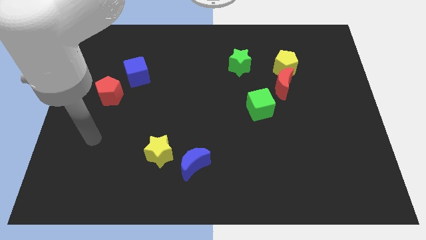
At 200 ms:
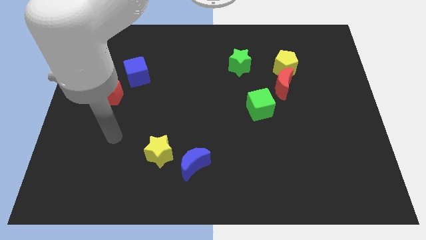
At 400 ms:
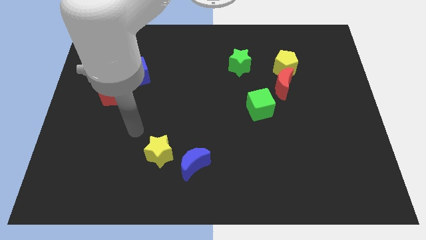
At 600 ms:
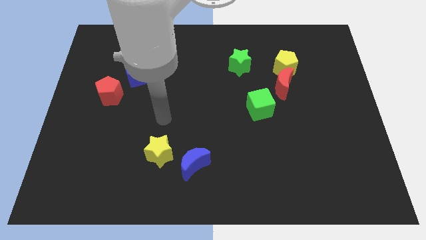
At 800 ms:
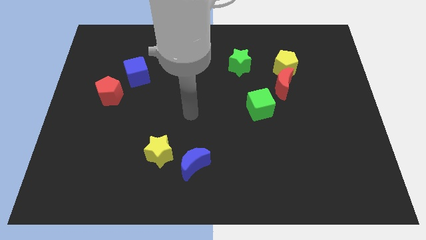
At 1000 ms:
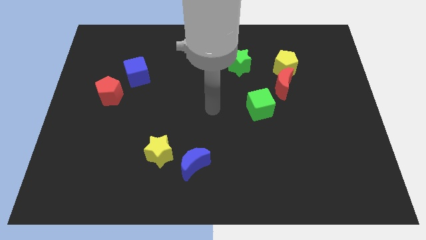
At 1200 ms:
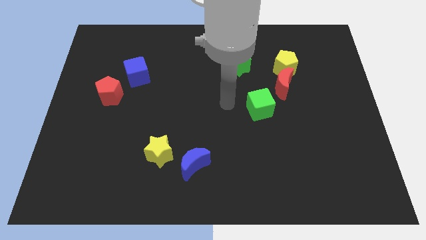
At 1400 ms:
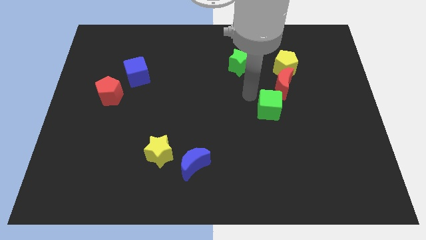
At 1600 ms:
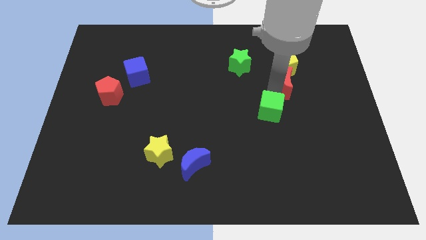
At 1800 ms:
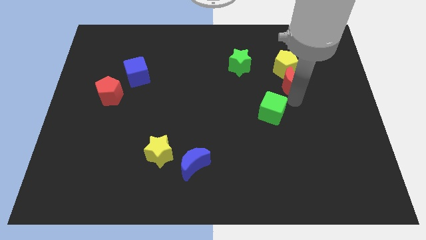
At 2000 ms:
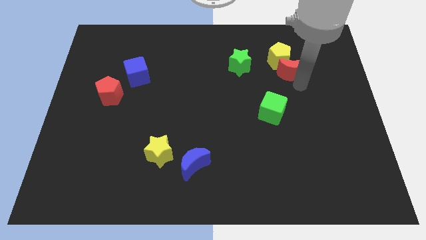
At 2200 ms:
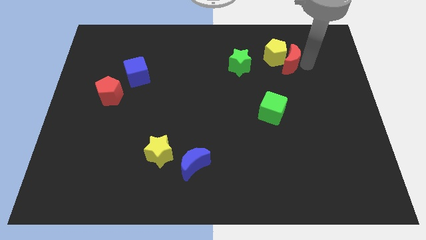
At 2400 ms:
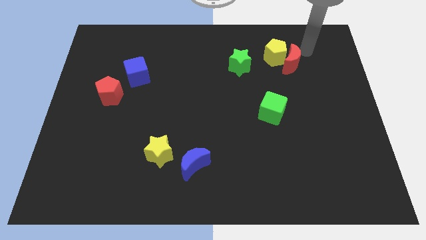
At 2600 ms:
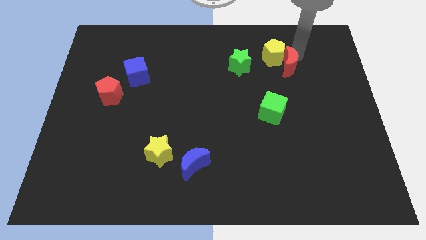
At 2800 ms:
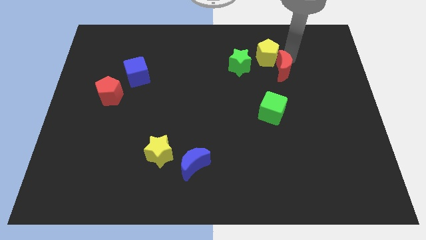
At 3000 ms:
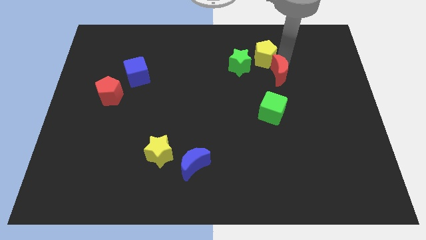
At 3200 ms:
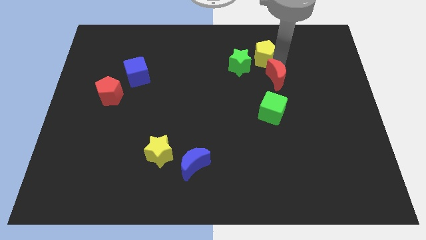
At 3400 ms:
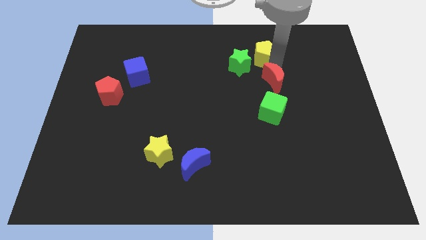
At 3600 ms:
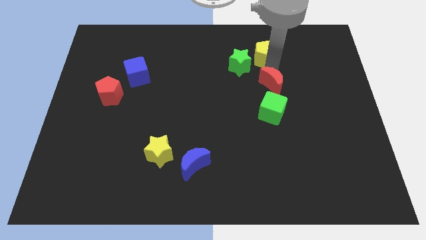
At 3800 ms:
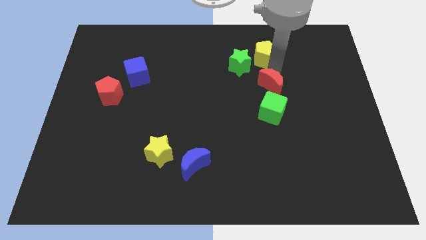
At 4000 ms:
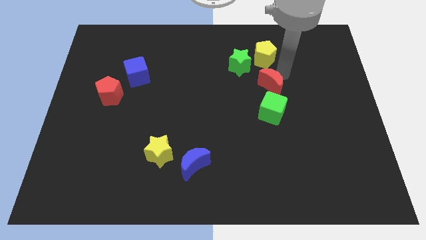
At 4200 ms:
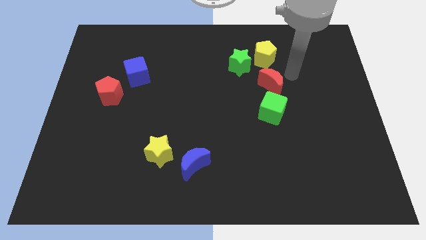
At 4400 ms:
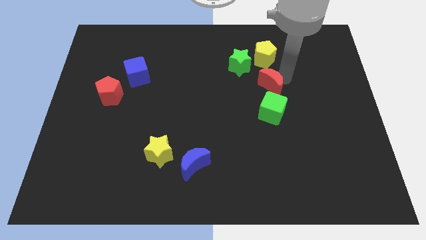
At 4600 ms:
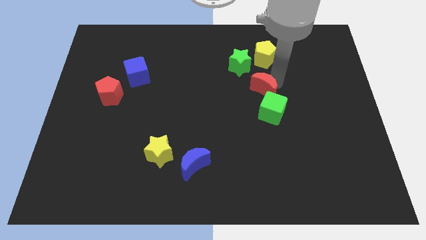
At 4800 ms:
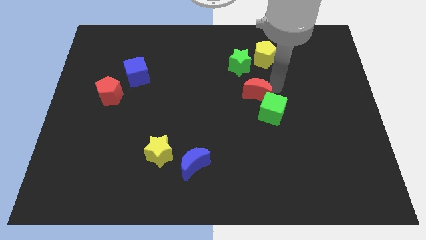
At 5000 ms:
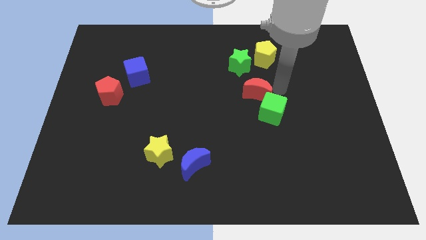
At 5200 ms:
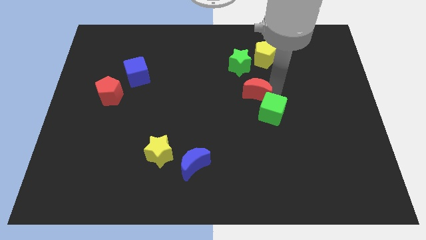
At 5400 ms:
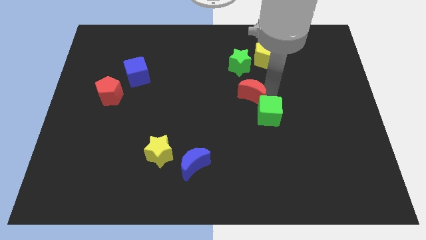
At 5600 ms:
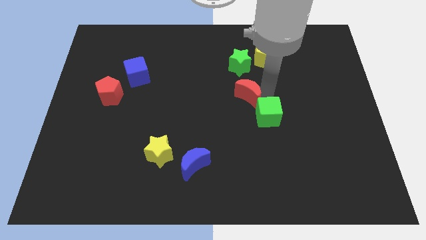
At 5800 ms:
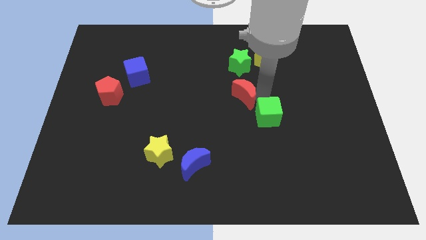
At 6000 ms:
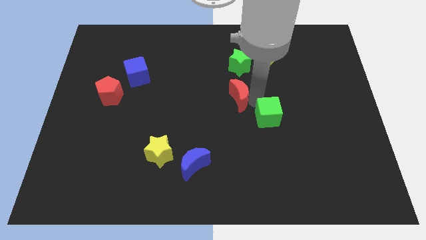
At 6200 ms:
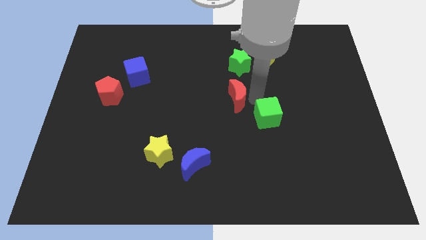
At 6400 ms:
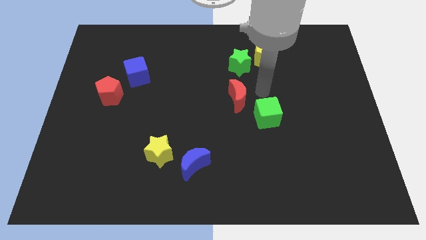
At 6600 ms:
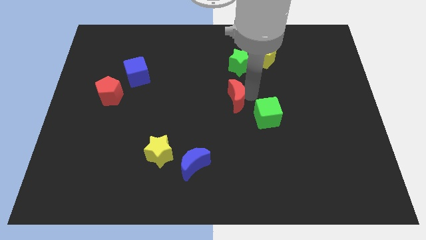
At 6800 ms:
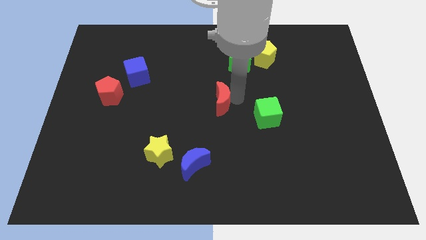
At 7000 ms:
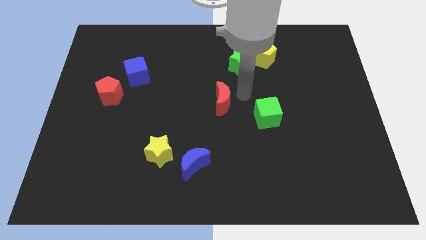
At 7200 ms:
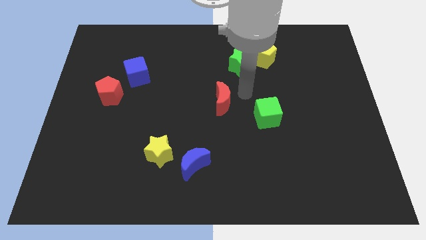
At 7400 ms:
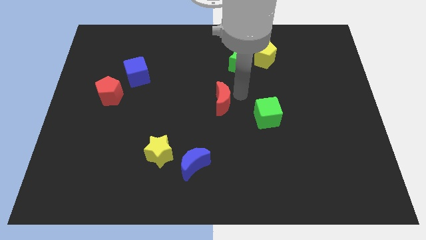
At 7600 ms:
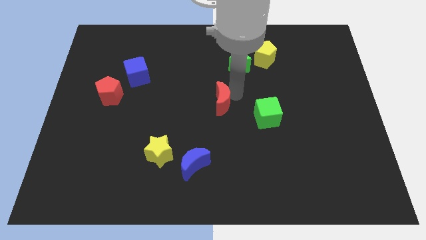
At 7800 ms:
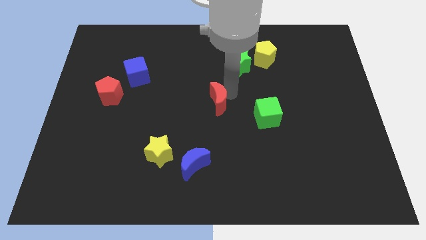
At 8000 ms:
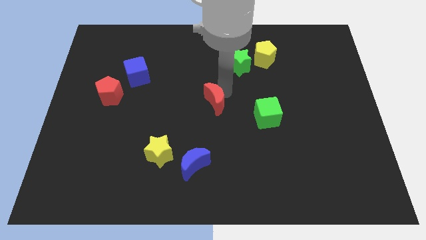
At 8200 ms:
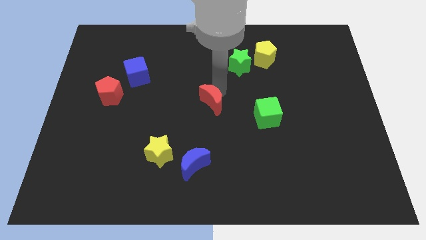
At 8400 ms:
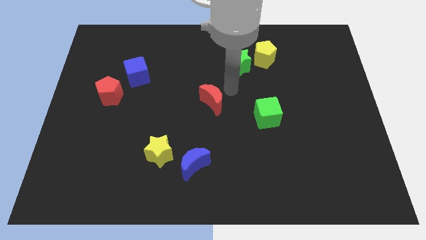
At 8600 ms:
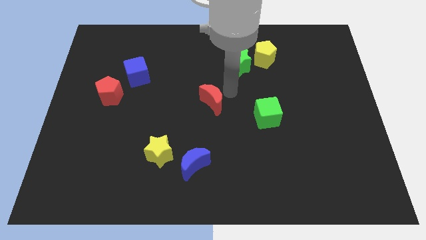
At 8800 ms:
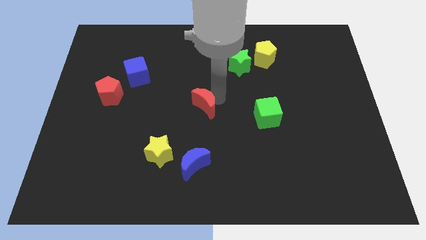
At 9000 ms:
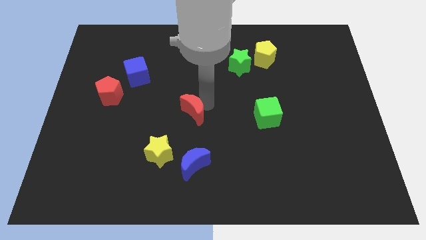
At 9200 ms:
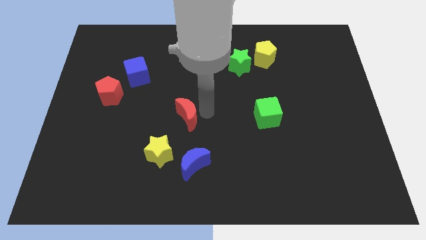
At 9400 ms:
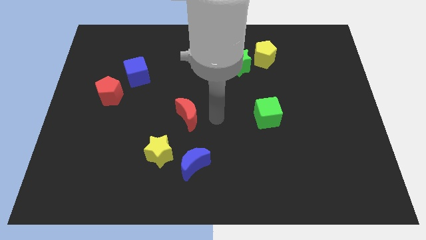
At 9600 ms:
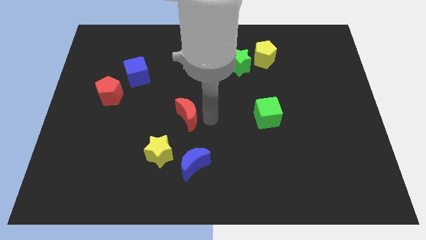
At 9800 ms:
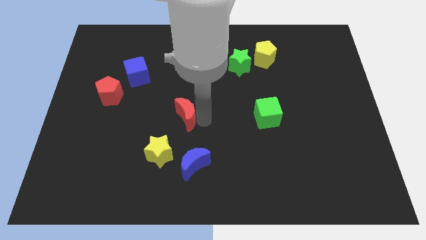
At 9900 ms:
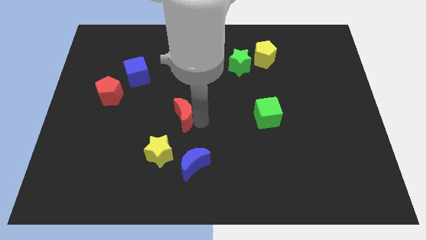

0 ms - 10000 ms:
put the red moon to the top side of the yellow star

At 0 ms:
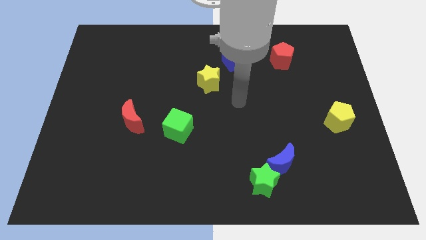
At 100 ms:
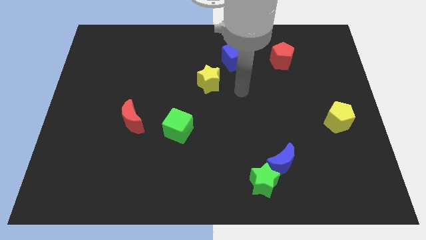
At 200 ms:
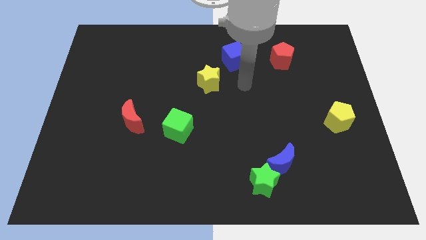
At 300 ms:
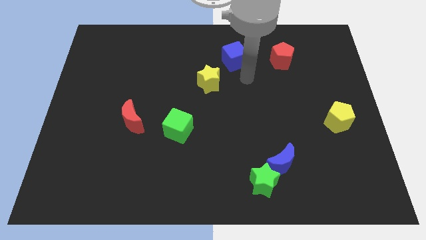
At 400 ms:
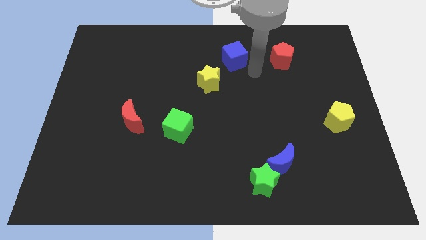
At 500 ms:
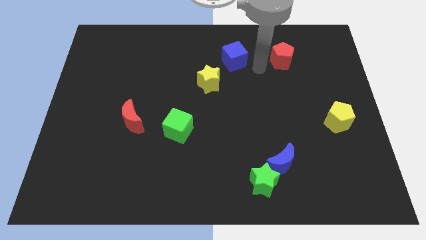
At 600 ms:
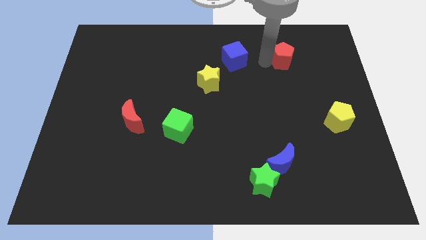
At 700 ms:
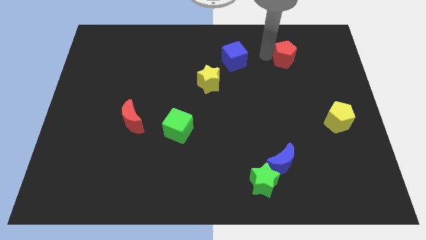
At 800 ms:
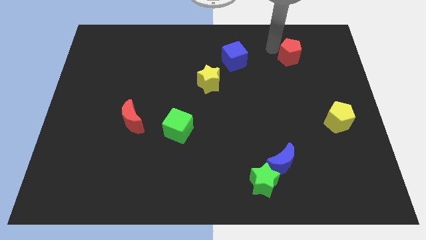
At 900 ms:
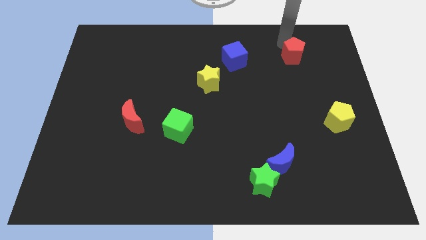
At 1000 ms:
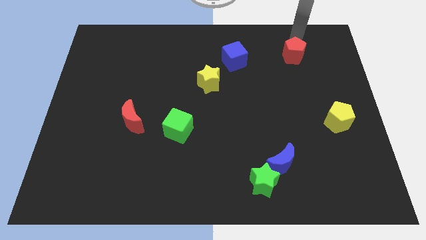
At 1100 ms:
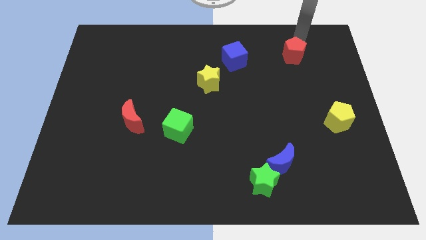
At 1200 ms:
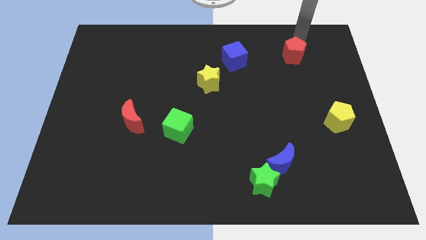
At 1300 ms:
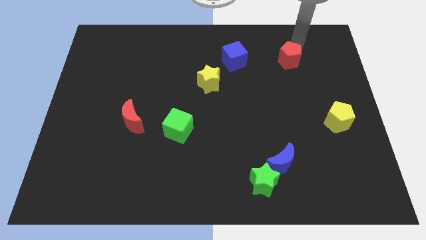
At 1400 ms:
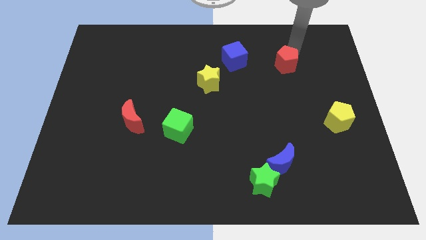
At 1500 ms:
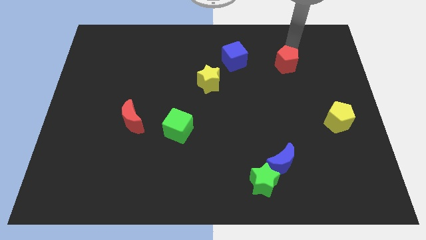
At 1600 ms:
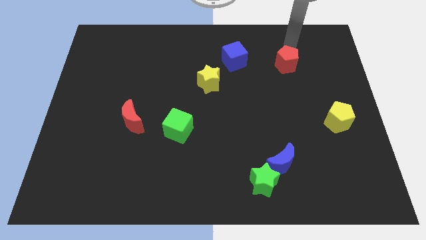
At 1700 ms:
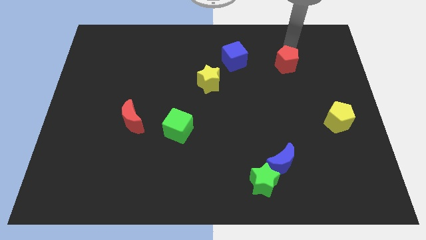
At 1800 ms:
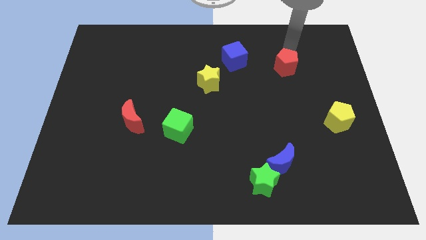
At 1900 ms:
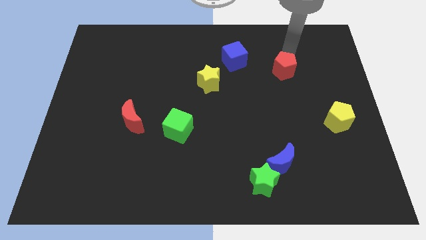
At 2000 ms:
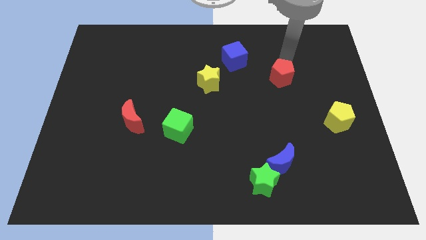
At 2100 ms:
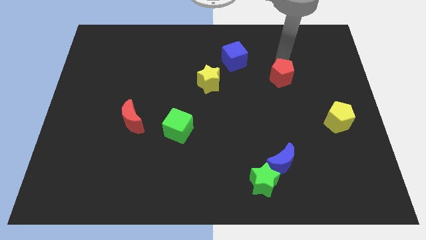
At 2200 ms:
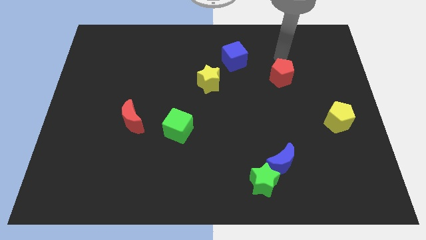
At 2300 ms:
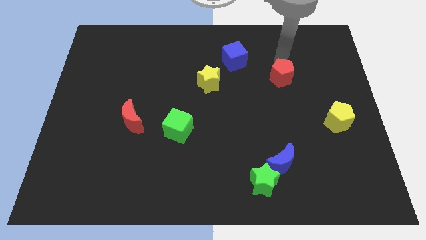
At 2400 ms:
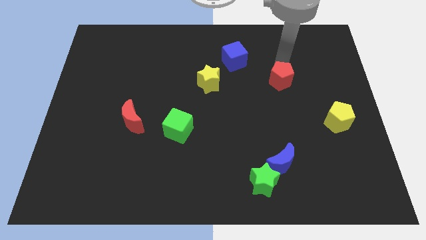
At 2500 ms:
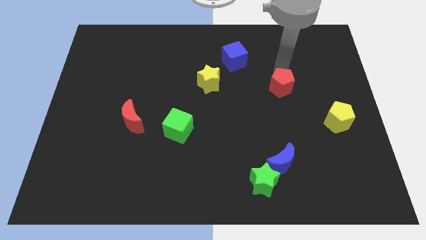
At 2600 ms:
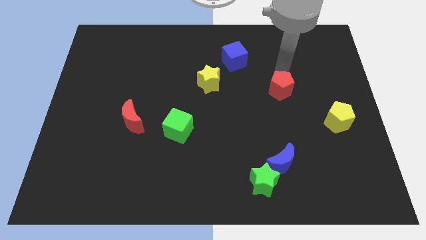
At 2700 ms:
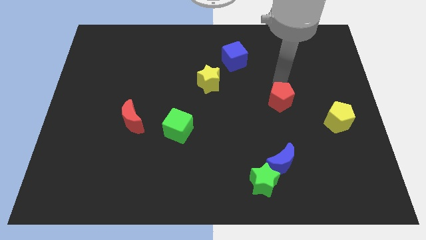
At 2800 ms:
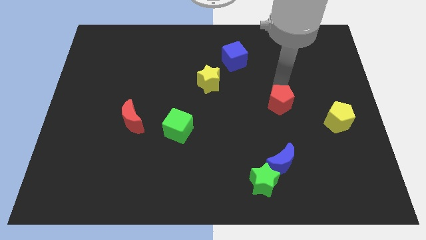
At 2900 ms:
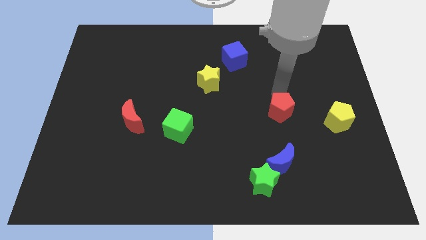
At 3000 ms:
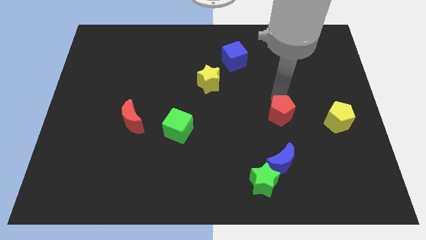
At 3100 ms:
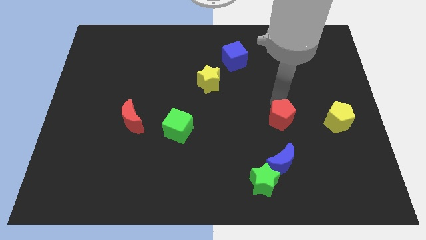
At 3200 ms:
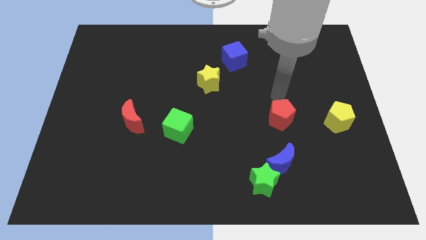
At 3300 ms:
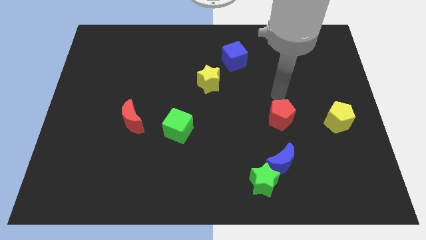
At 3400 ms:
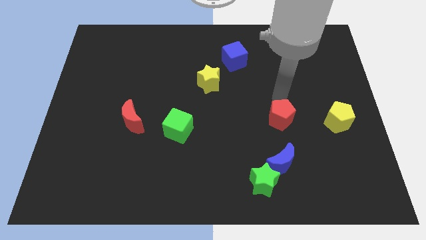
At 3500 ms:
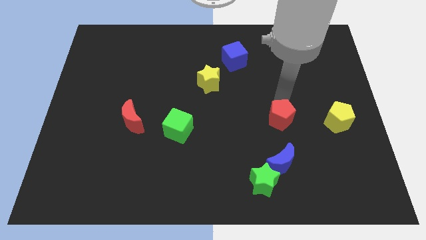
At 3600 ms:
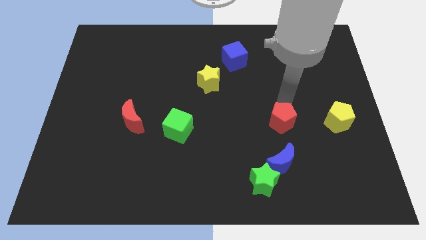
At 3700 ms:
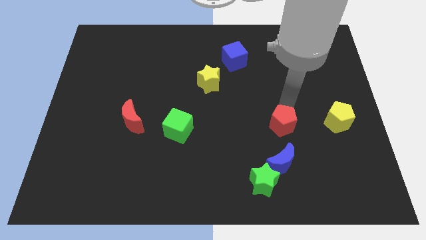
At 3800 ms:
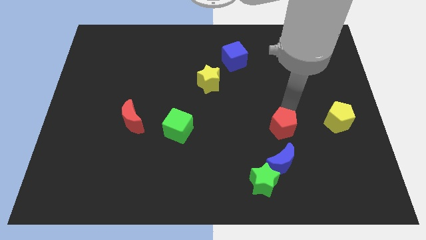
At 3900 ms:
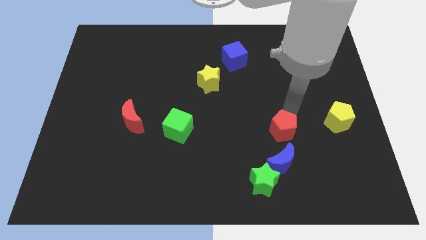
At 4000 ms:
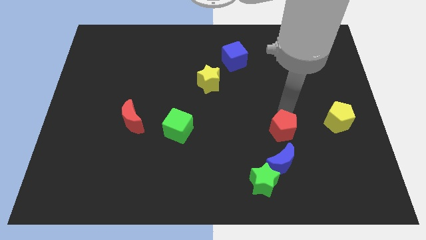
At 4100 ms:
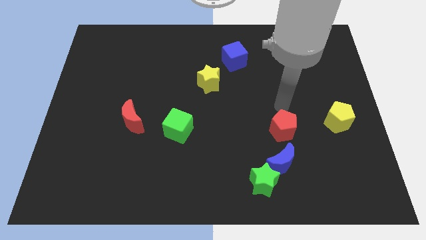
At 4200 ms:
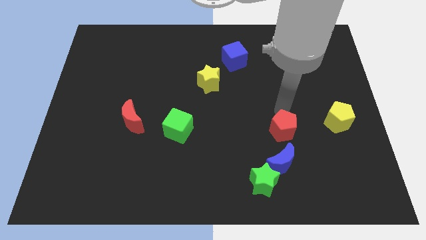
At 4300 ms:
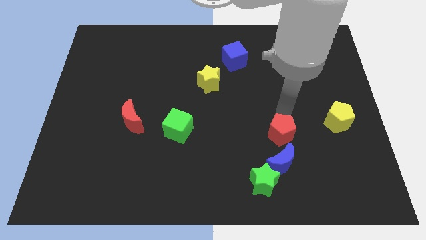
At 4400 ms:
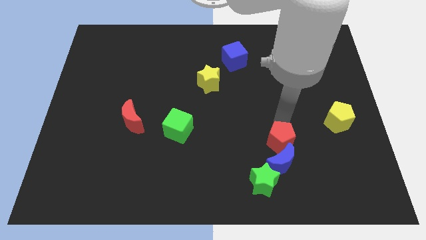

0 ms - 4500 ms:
push the red pentagon diagonally up and to the right of the green star
